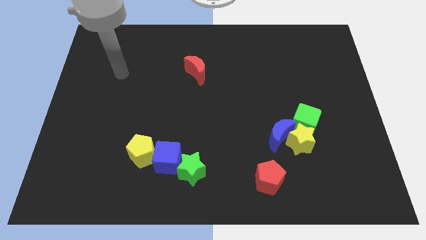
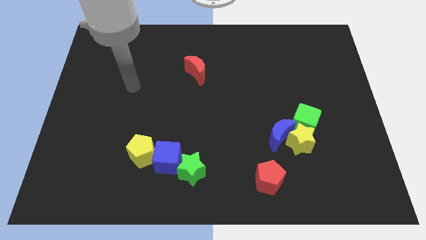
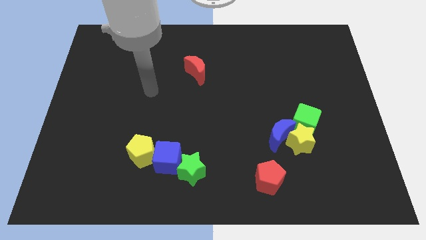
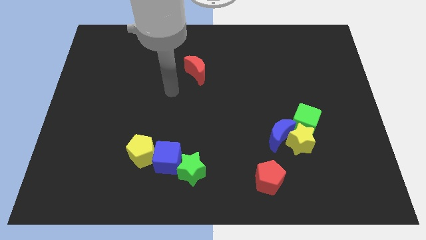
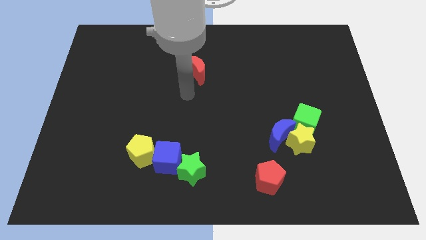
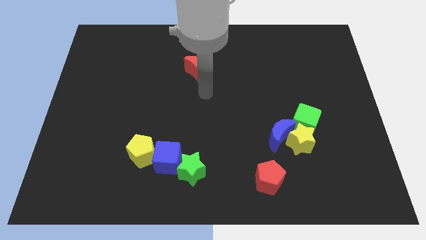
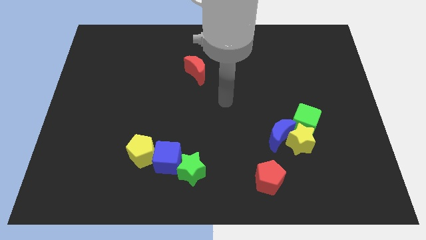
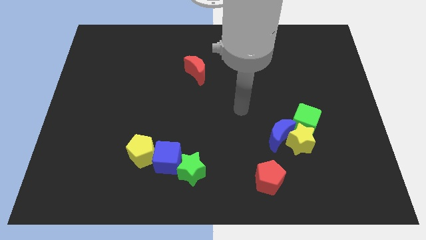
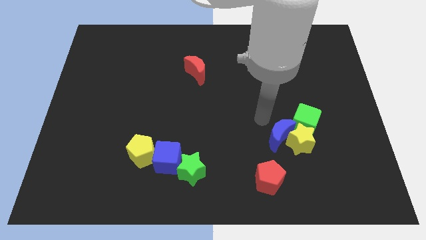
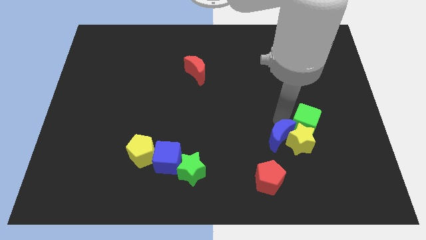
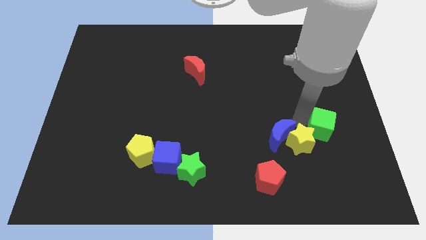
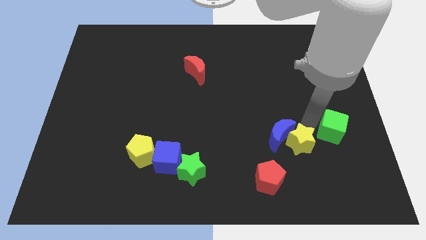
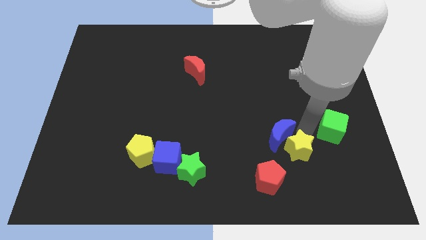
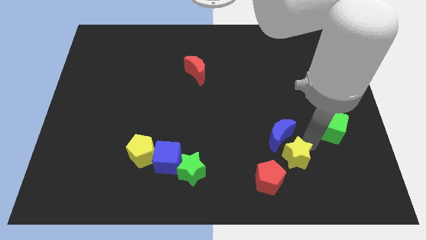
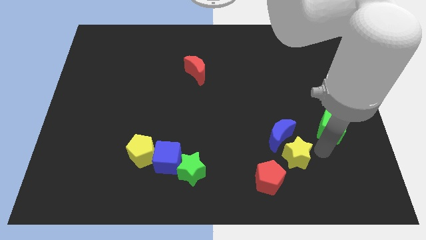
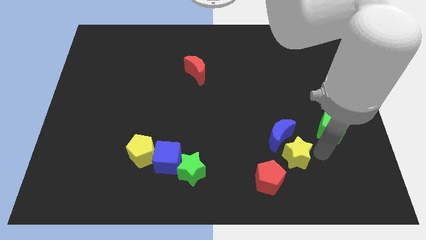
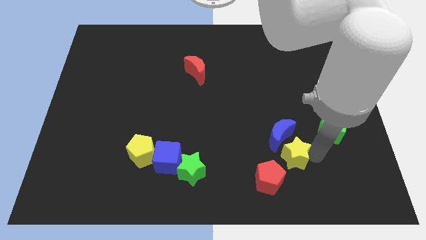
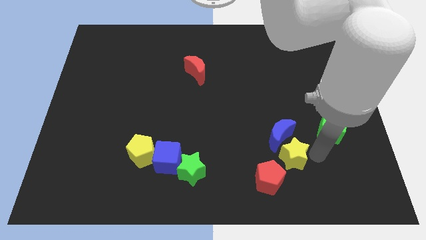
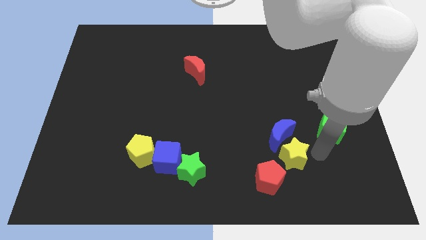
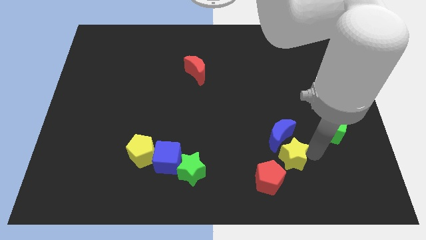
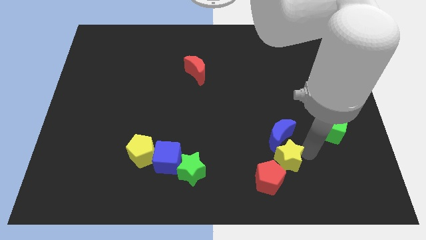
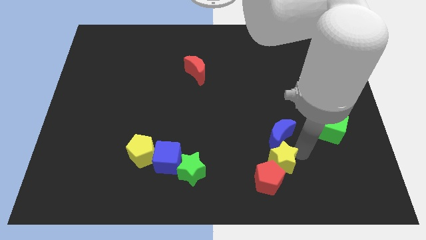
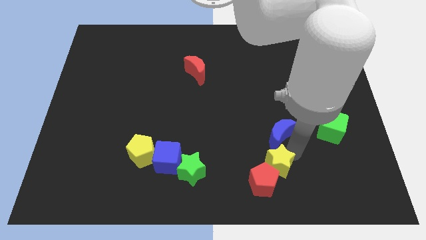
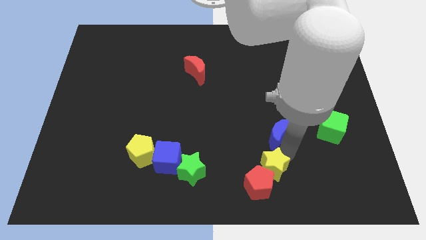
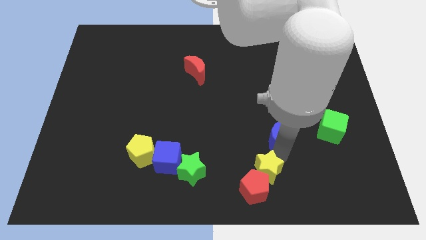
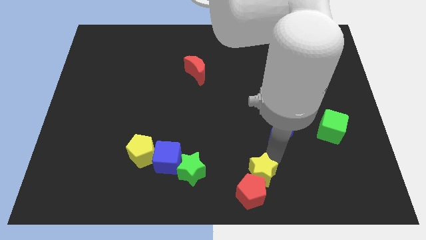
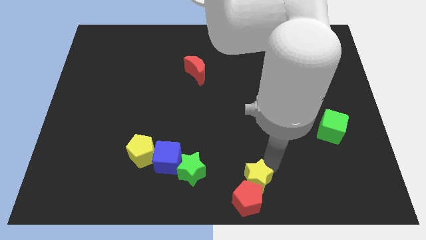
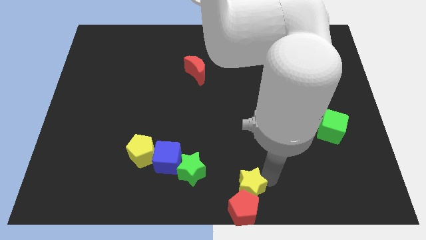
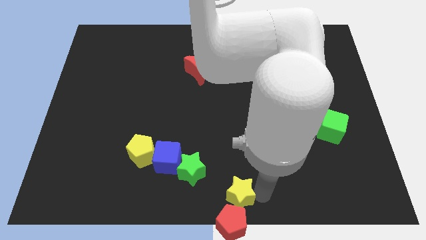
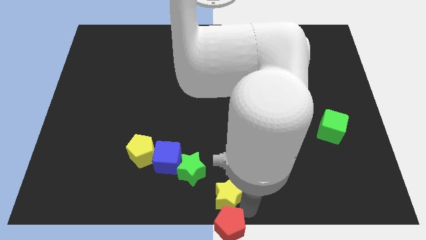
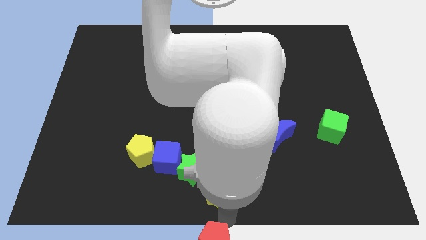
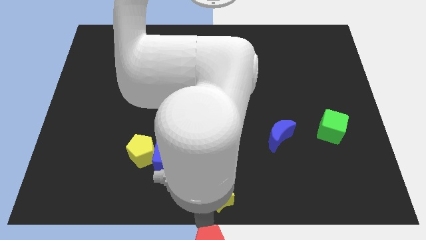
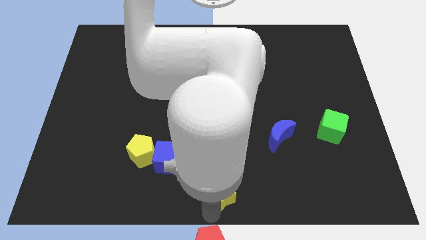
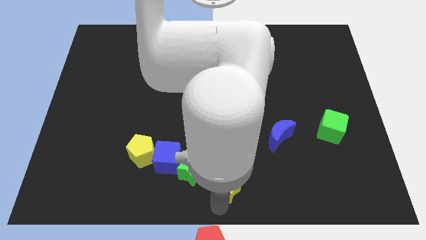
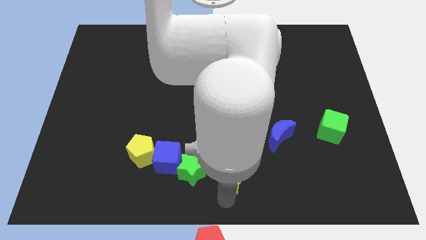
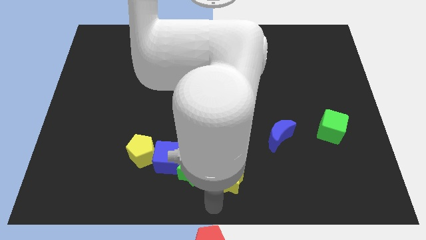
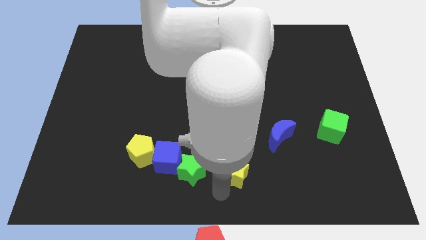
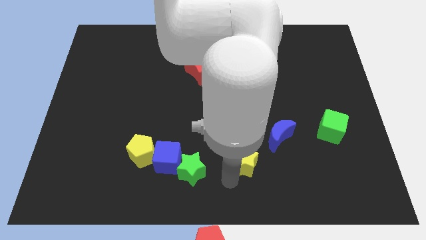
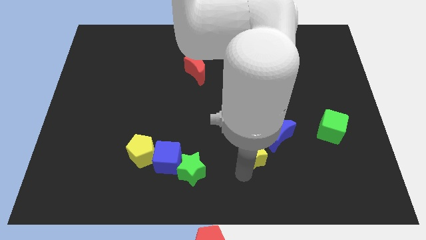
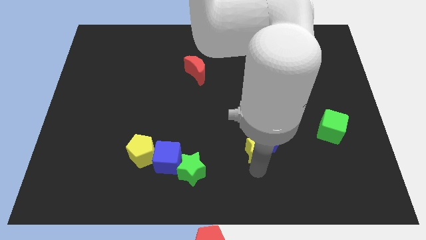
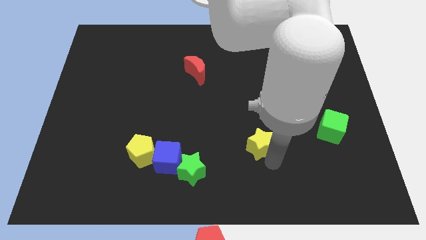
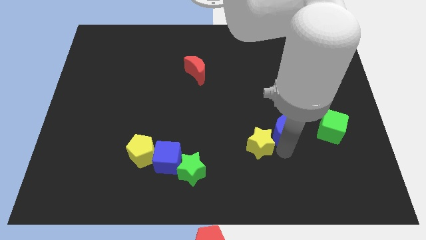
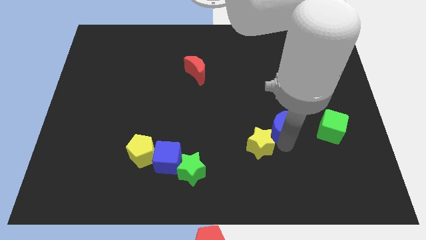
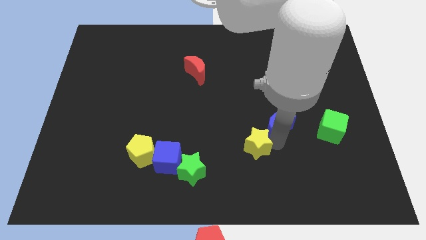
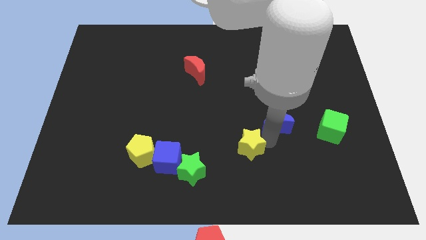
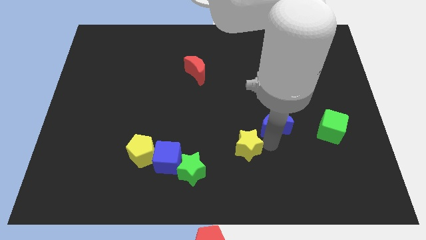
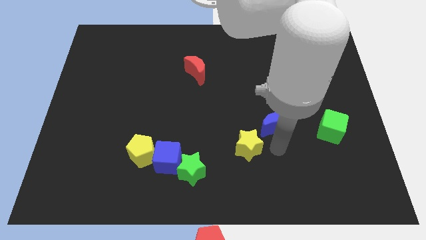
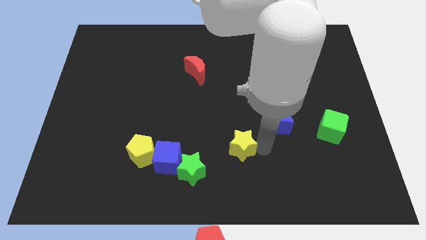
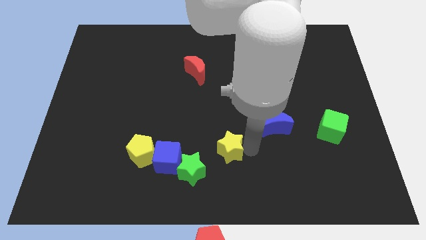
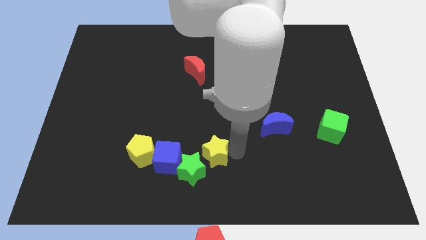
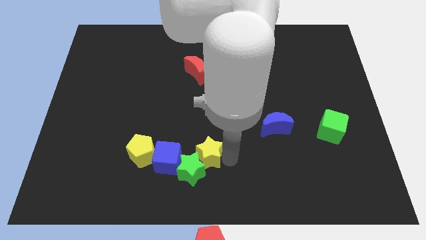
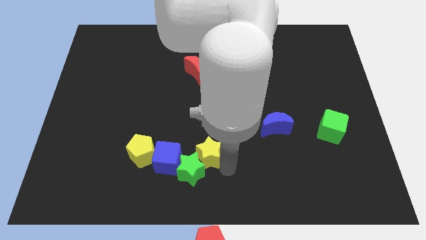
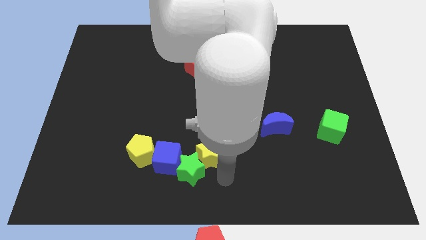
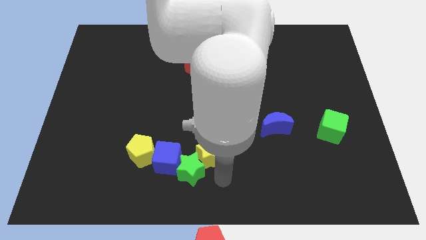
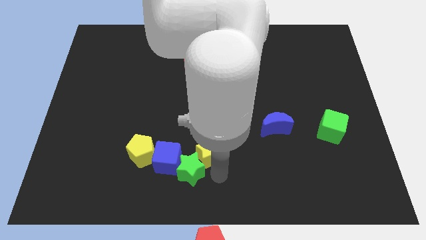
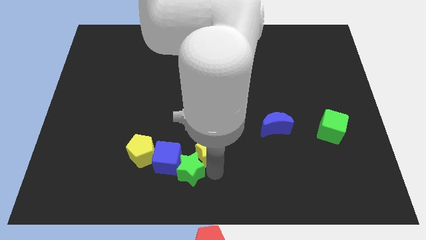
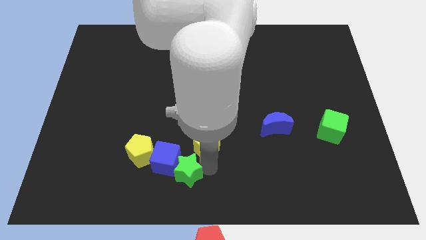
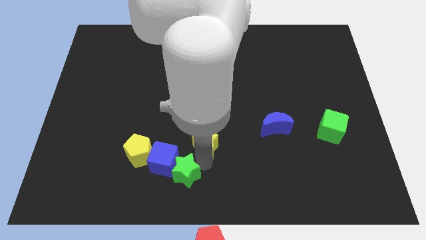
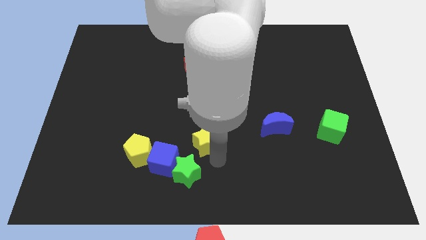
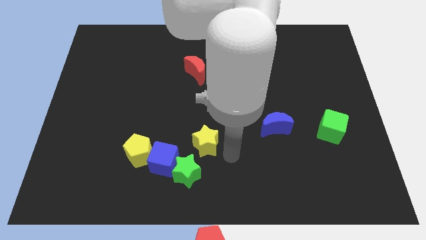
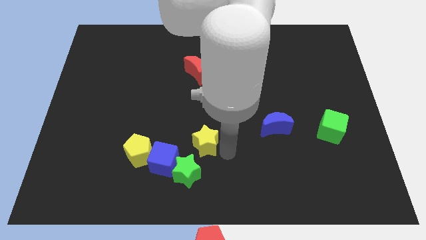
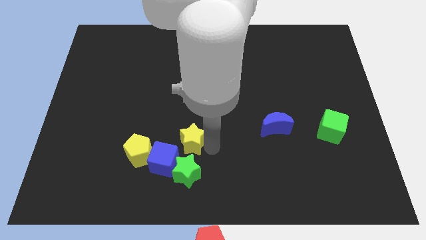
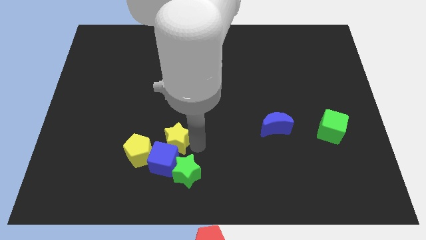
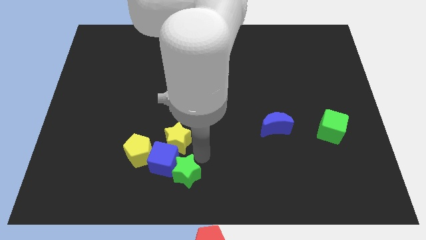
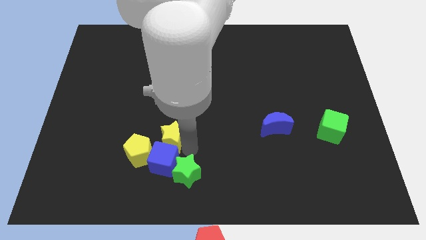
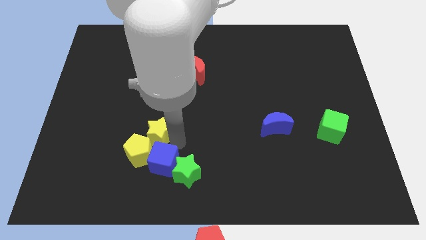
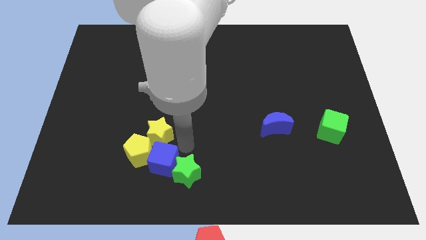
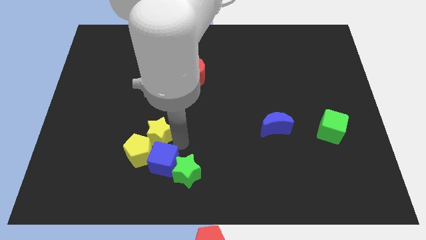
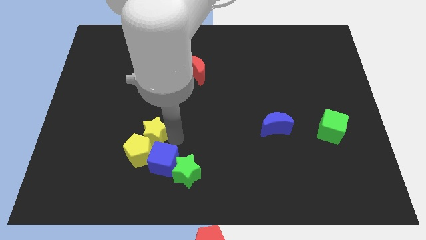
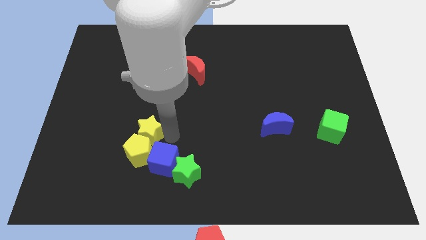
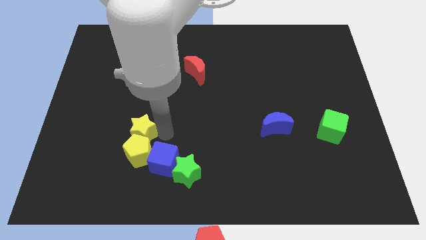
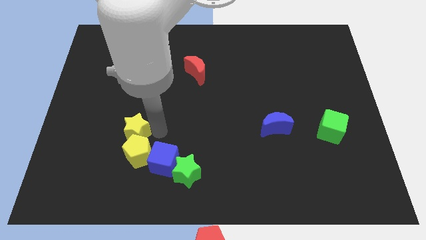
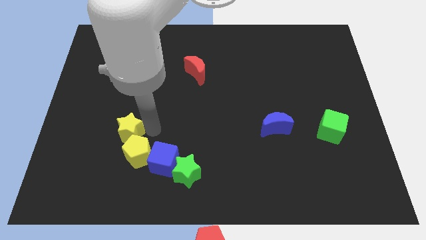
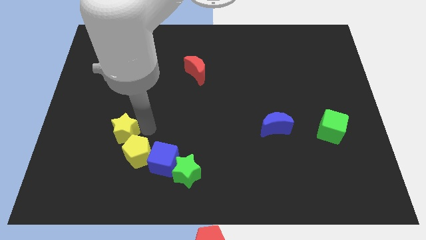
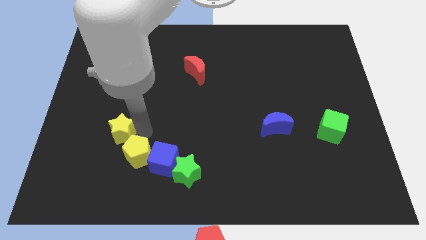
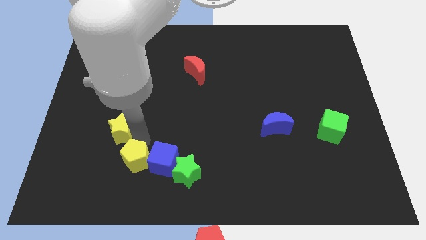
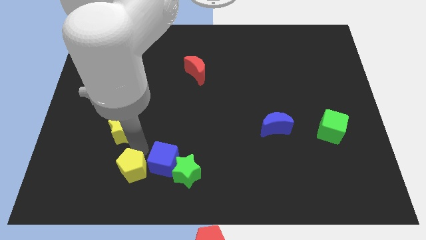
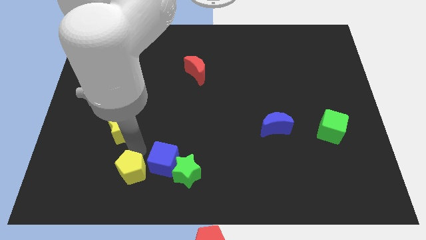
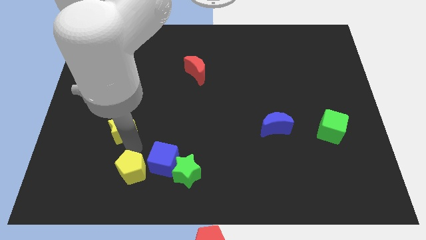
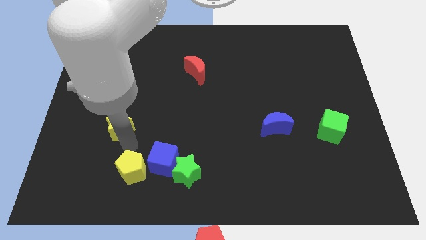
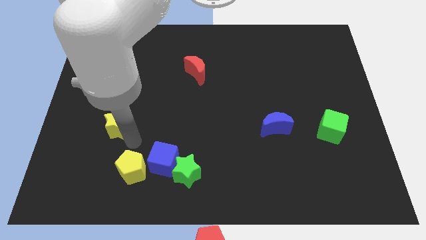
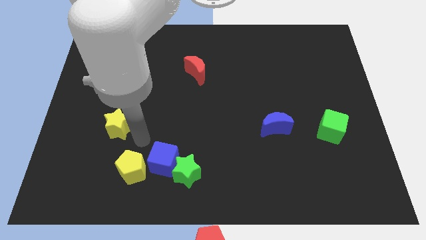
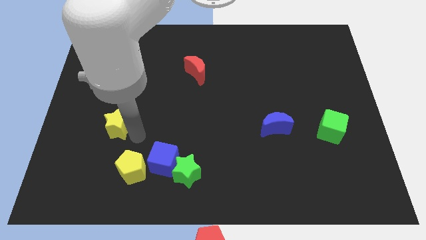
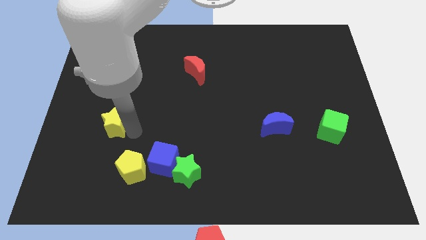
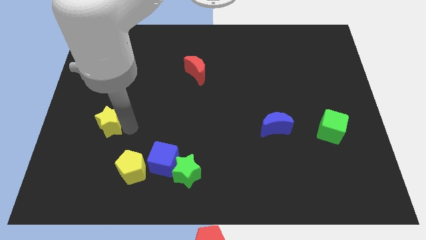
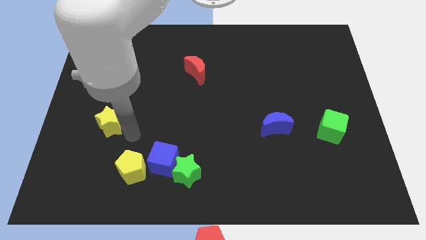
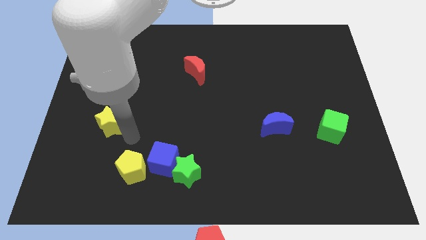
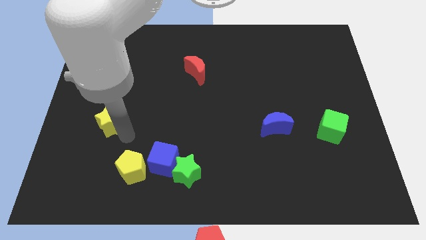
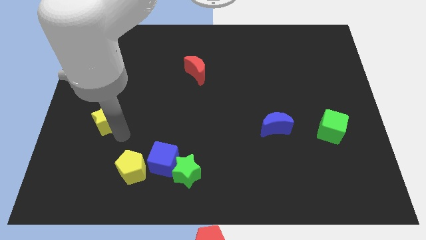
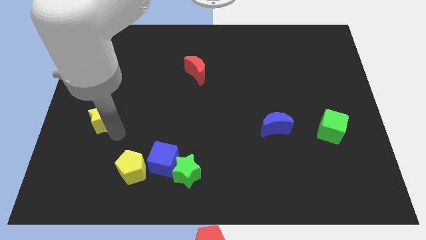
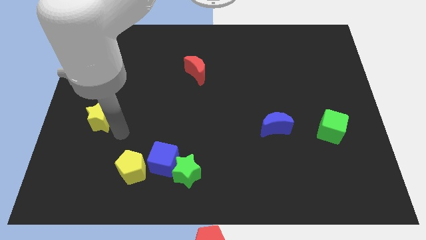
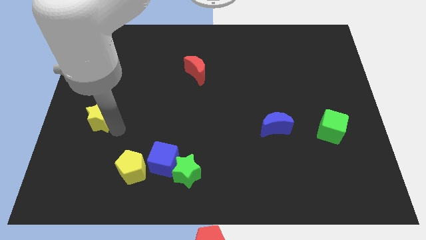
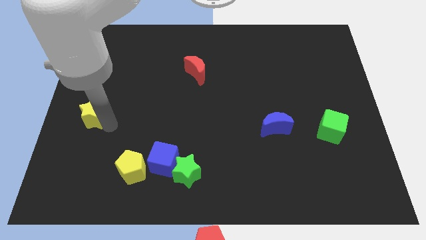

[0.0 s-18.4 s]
push the yellow star to the left side
